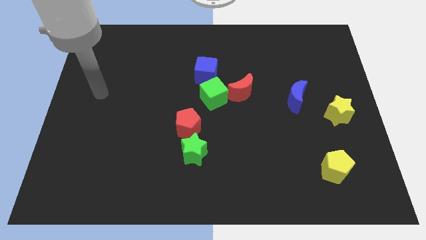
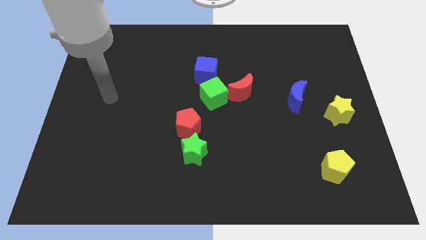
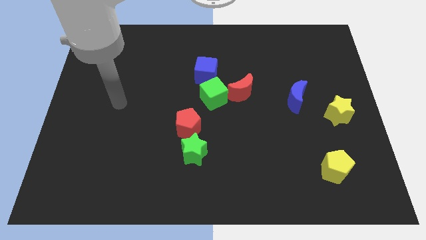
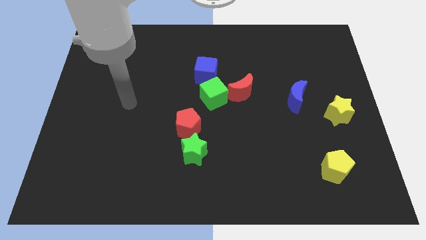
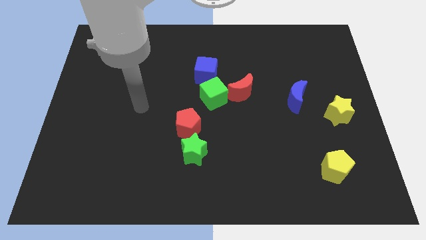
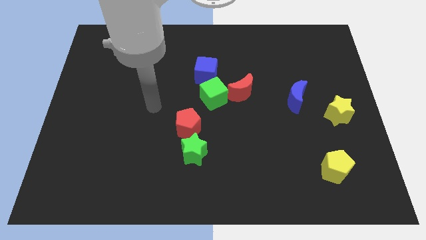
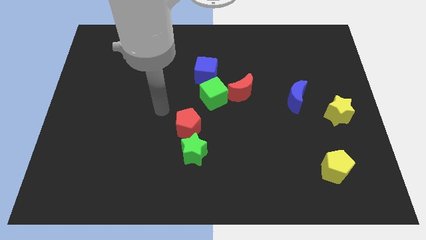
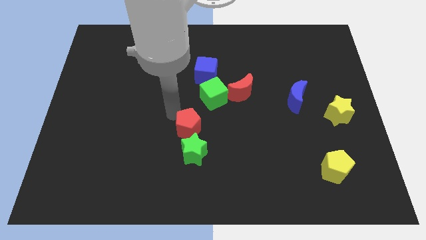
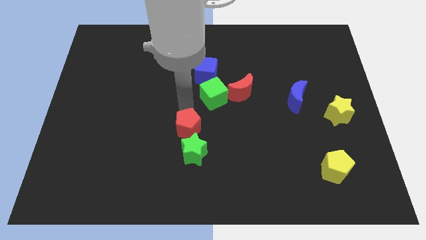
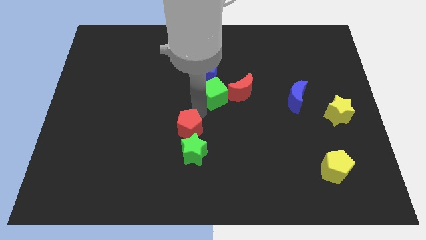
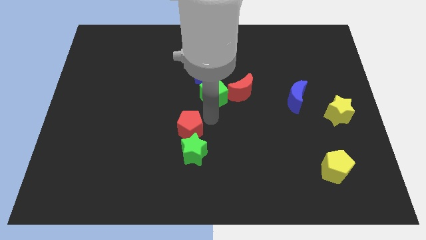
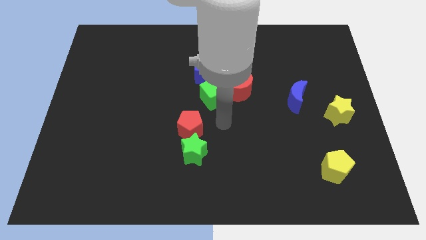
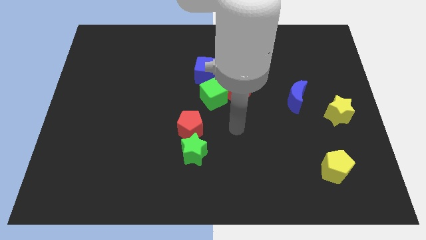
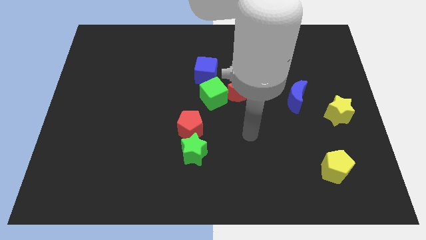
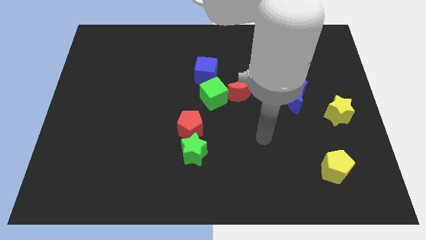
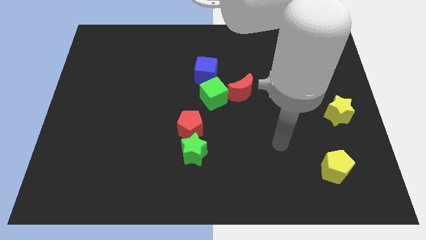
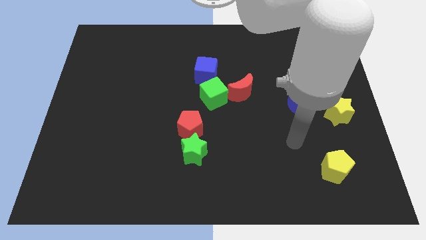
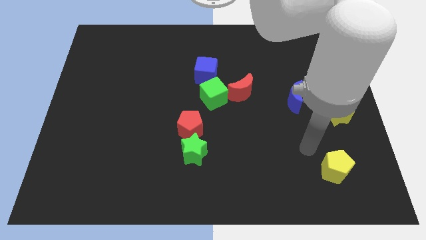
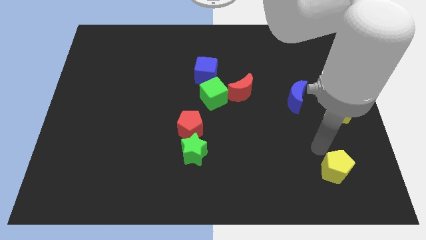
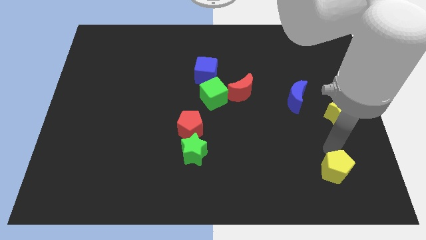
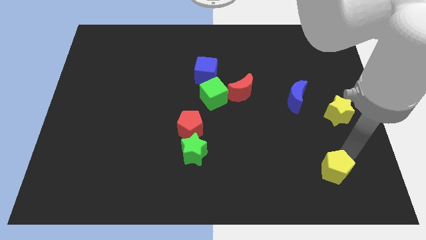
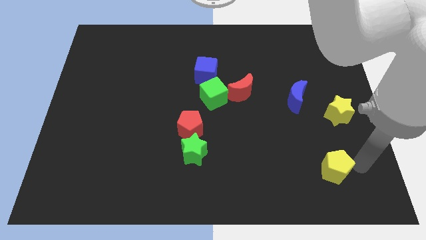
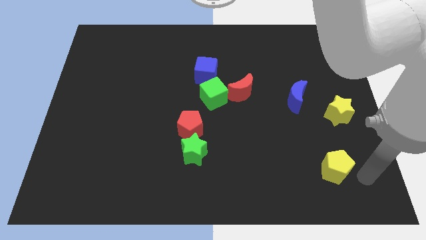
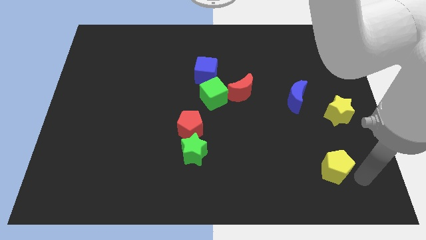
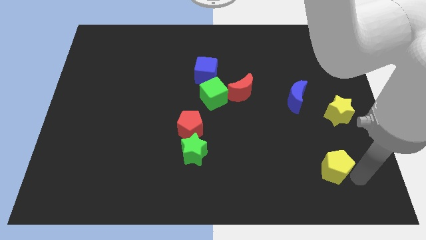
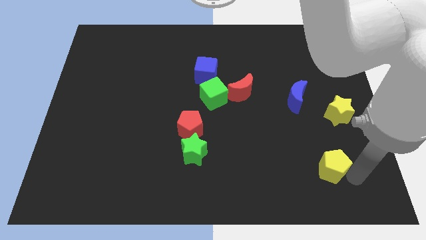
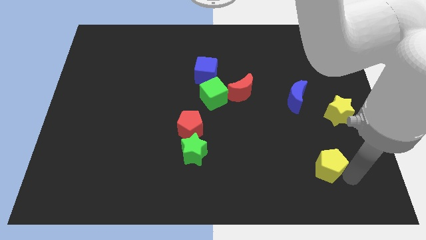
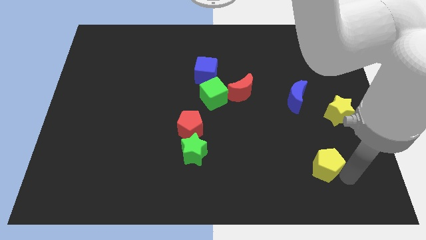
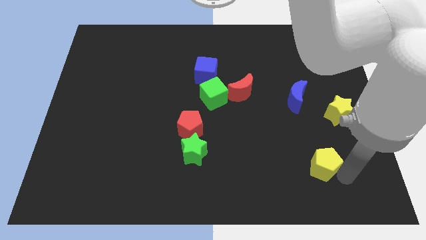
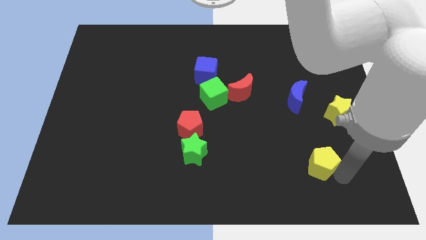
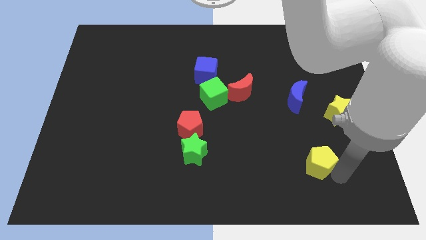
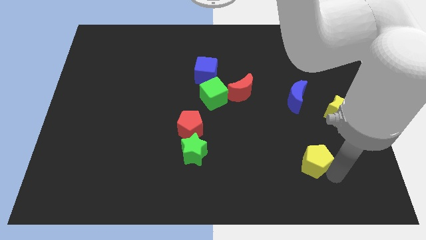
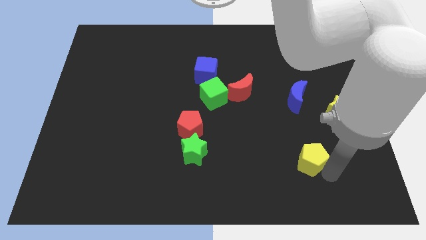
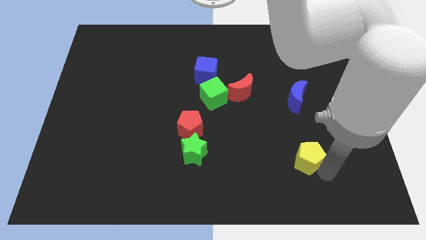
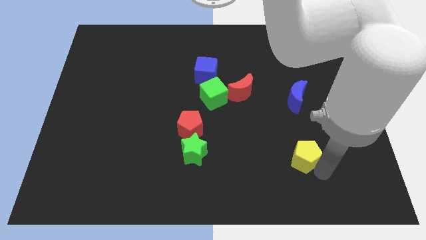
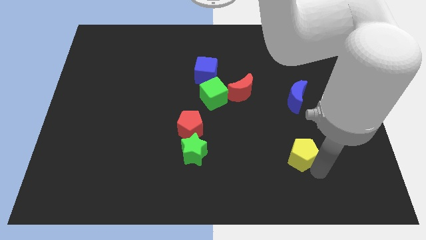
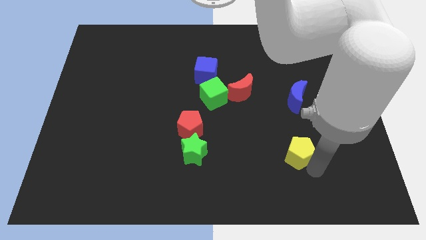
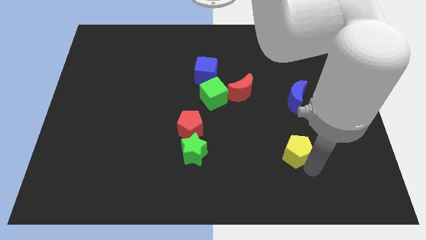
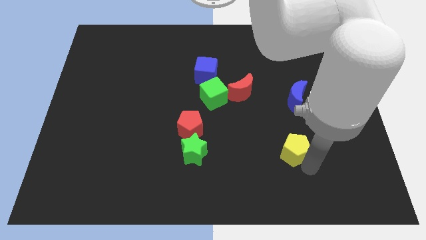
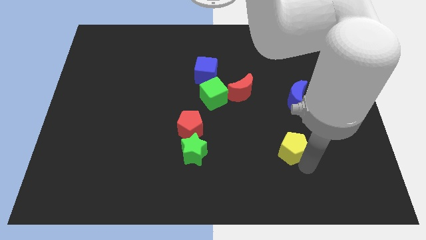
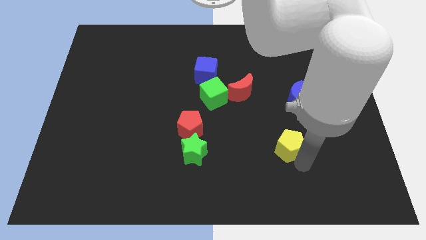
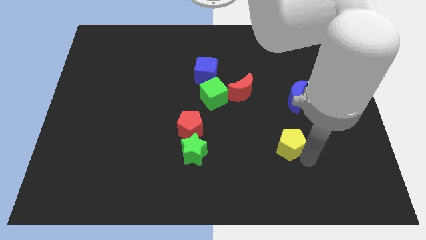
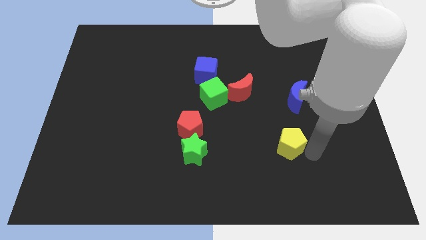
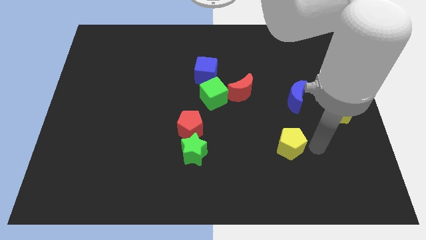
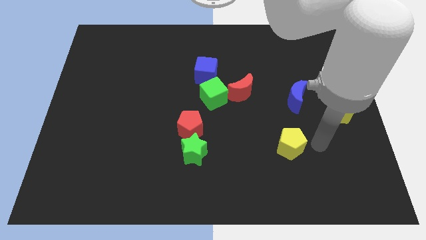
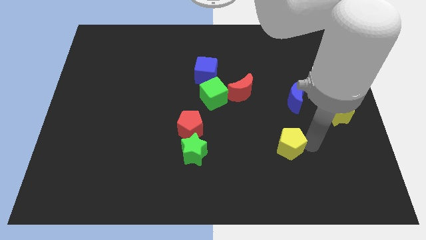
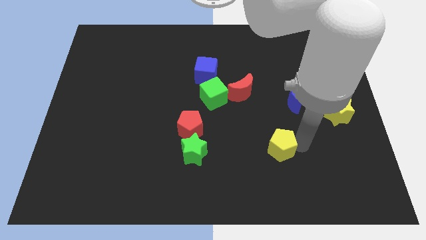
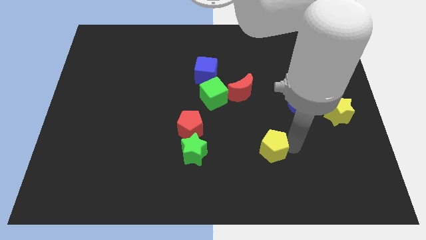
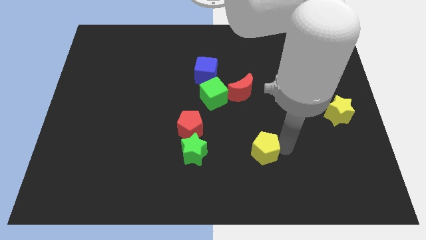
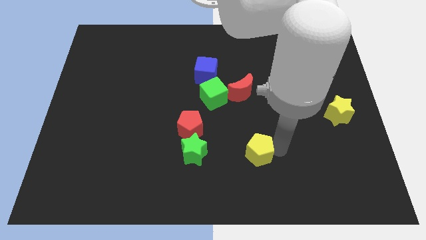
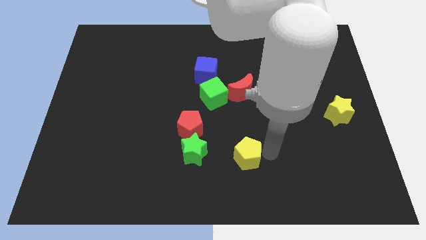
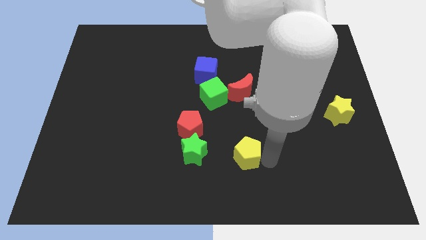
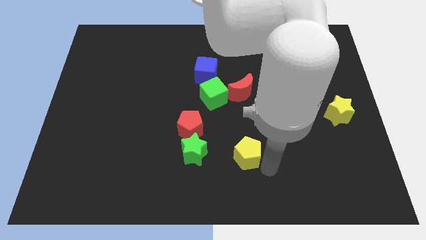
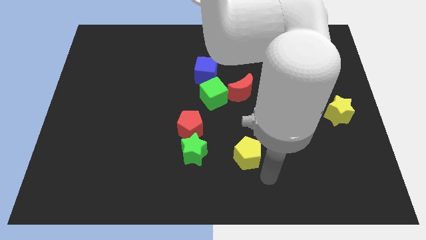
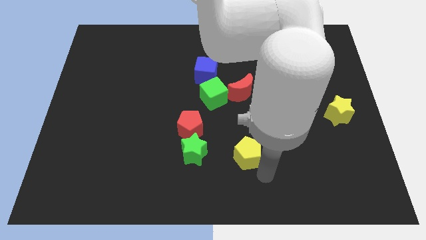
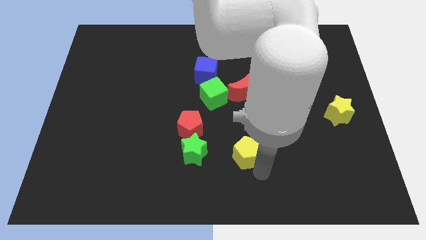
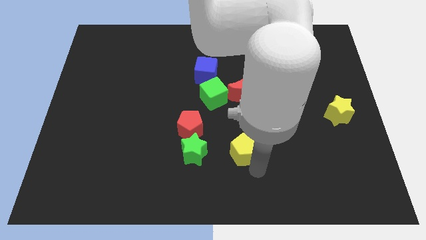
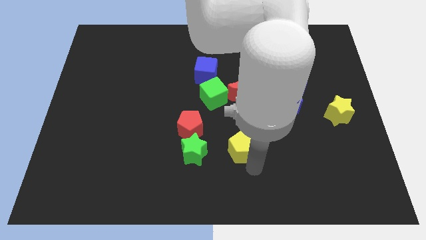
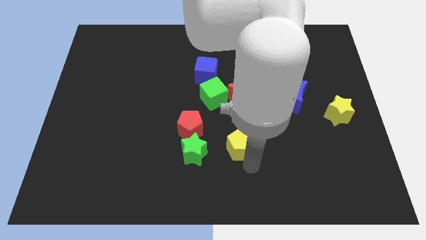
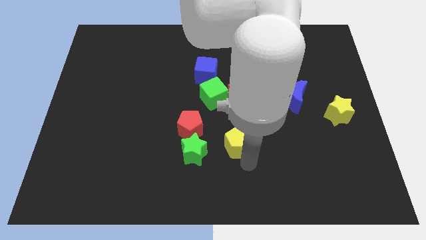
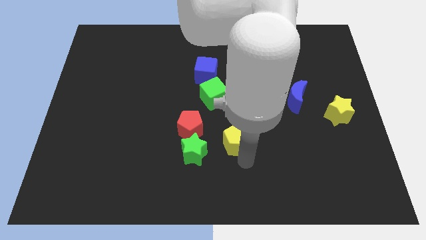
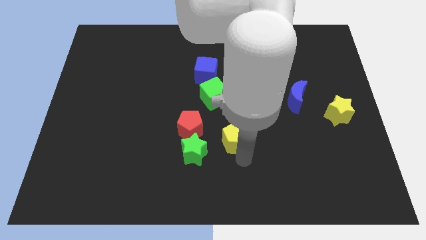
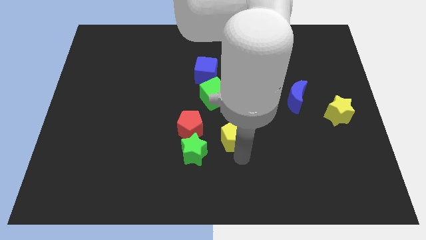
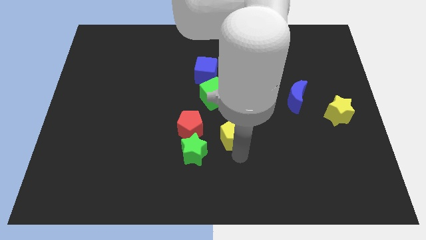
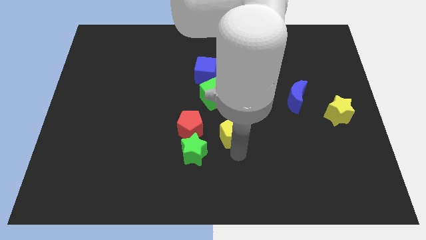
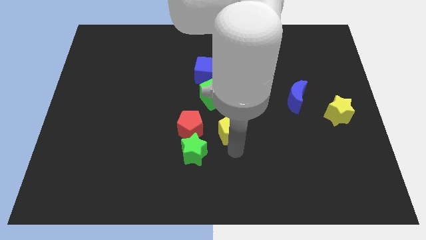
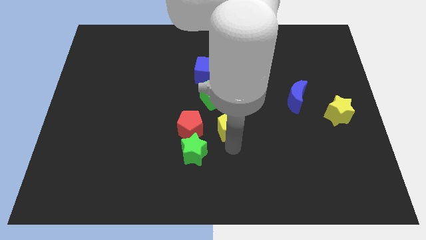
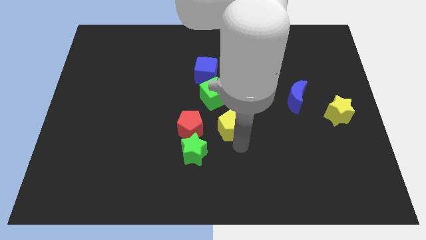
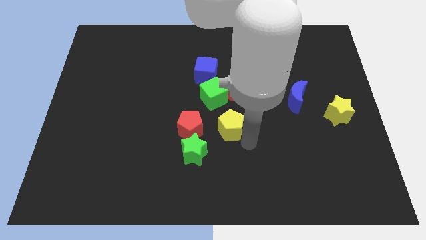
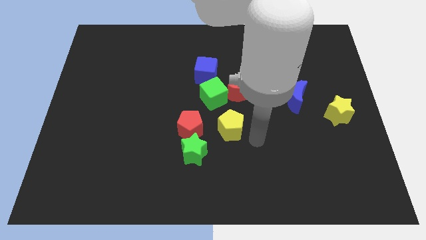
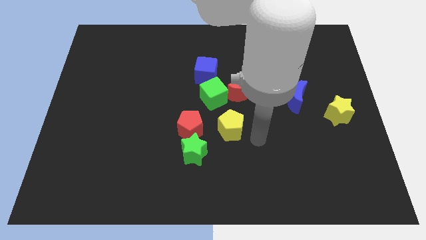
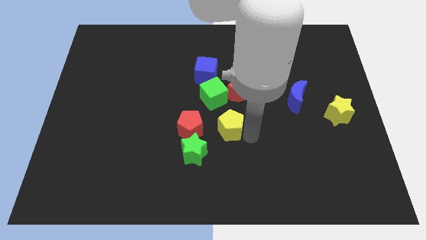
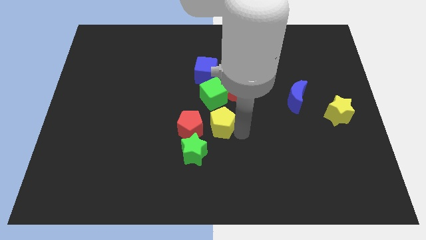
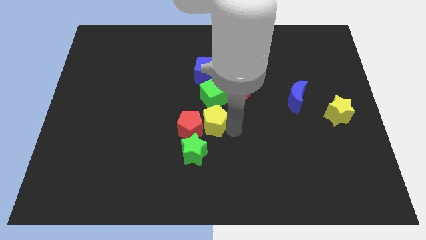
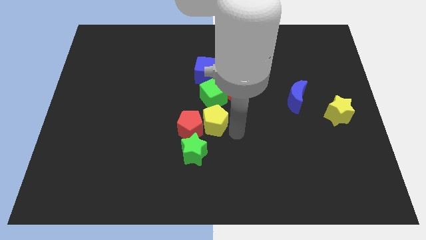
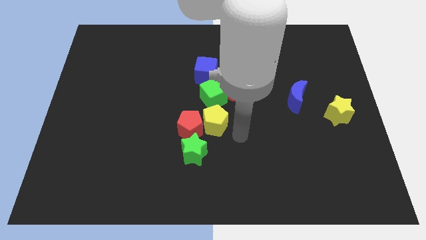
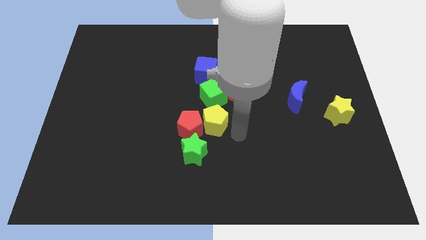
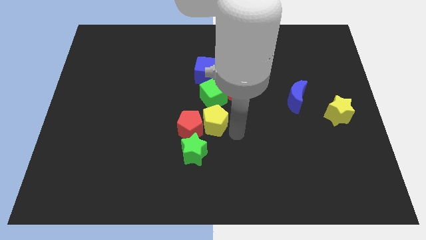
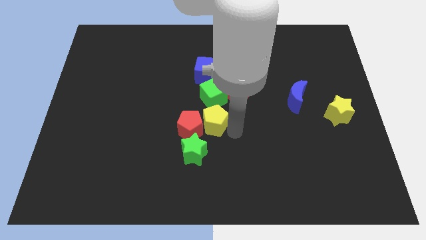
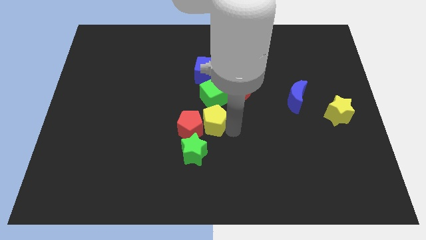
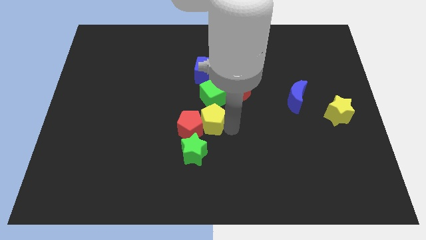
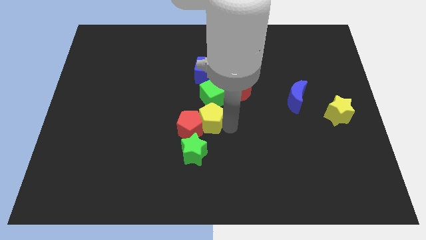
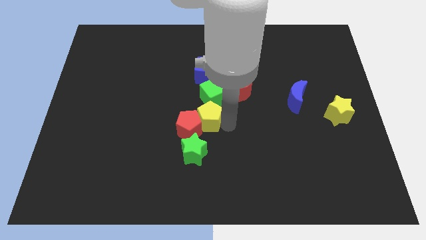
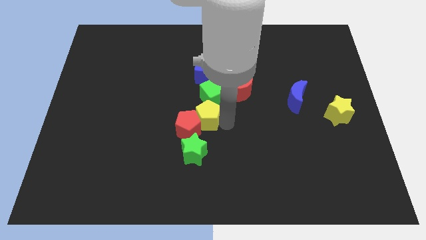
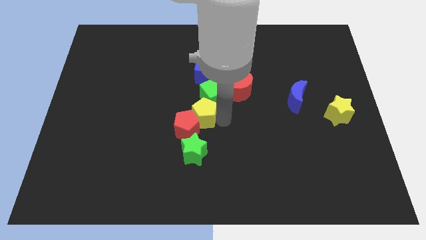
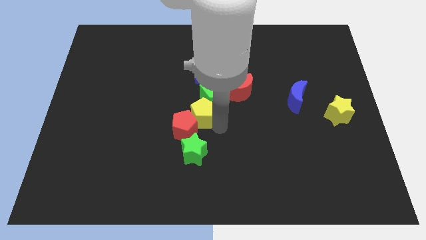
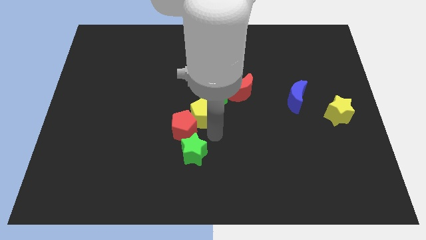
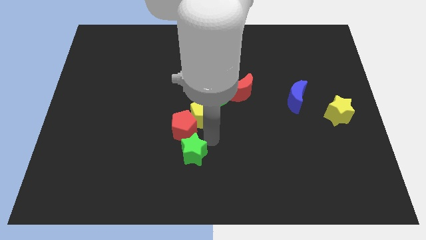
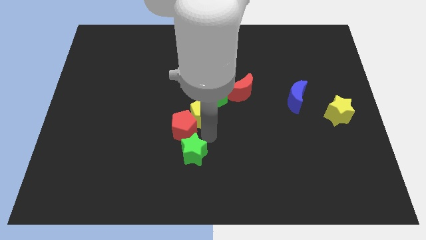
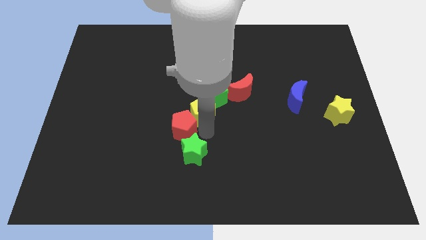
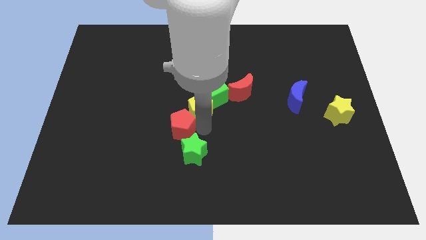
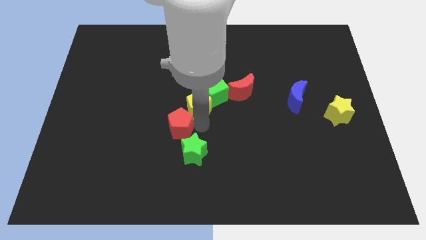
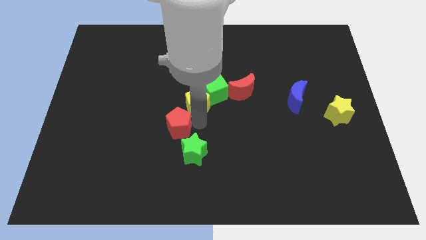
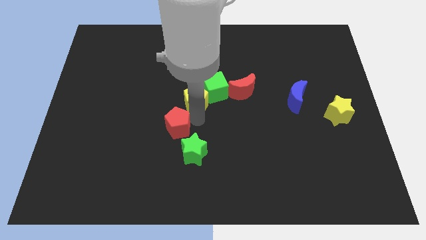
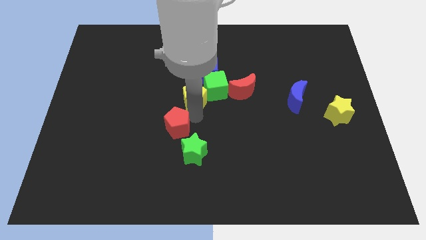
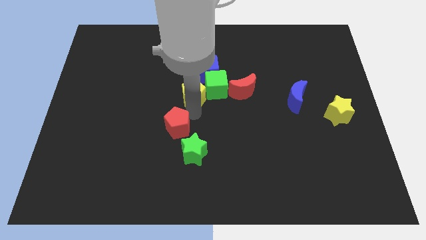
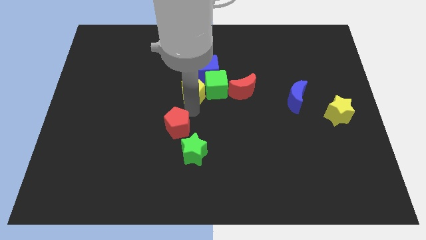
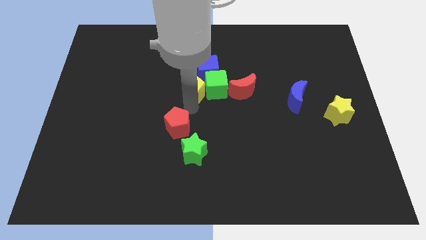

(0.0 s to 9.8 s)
slide the yellow pentagon diagonally up and to the left of the green cube
